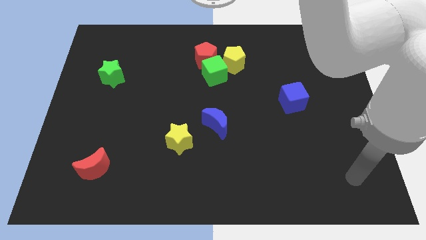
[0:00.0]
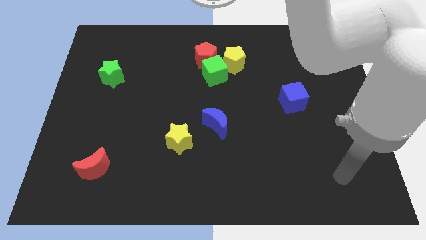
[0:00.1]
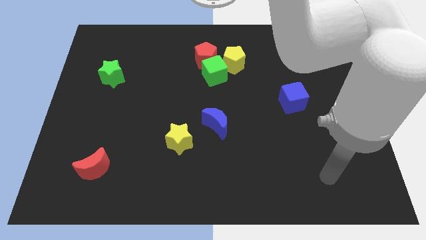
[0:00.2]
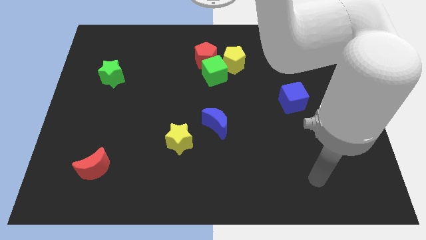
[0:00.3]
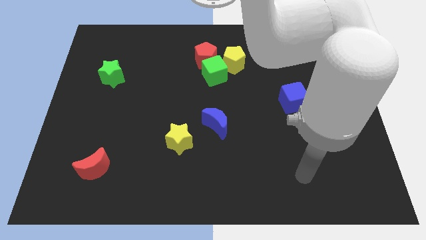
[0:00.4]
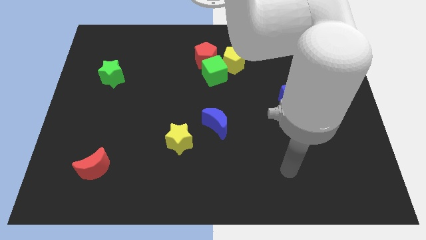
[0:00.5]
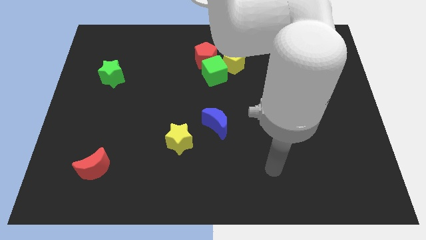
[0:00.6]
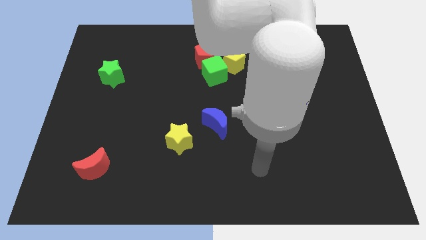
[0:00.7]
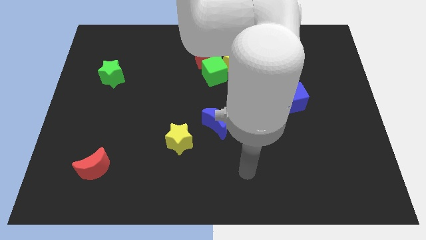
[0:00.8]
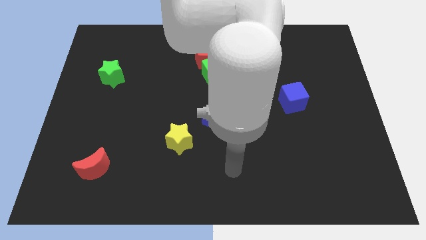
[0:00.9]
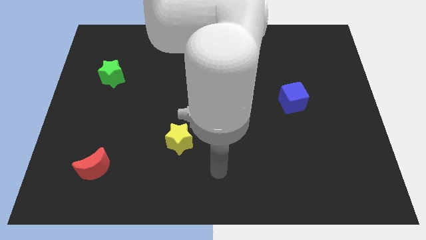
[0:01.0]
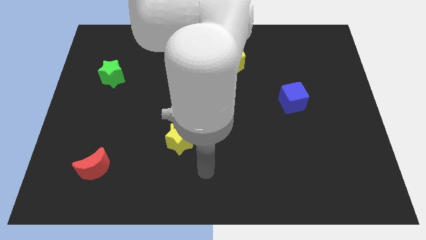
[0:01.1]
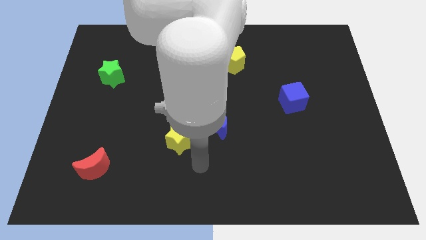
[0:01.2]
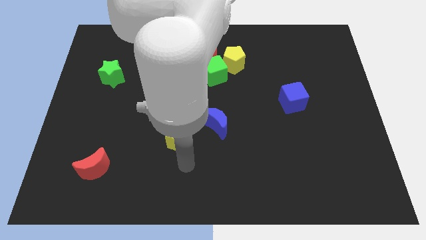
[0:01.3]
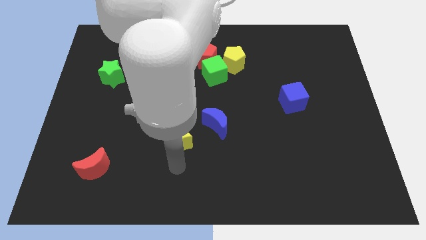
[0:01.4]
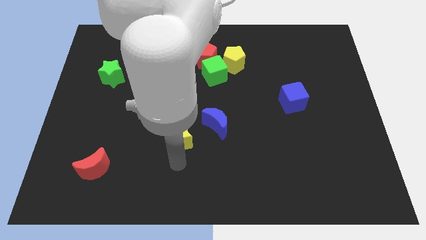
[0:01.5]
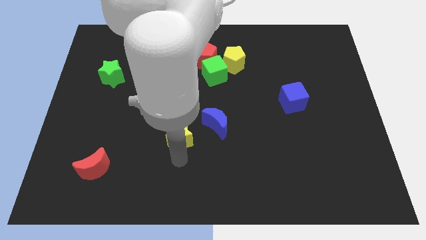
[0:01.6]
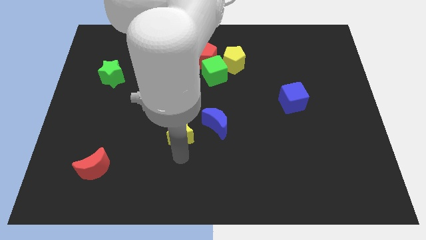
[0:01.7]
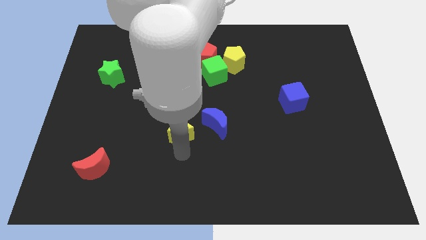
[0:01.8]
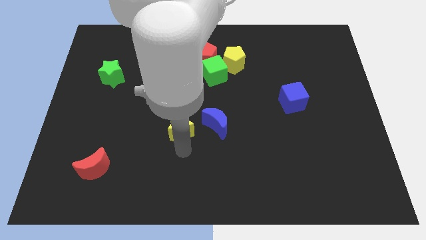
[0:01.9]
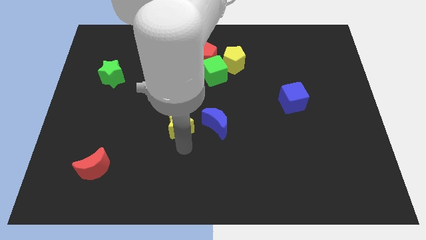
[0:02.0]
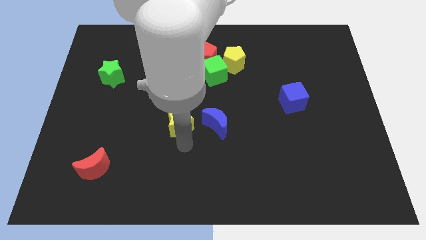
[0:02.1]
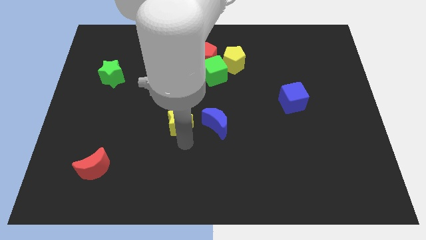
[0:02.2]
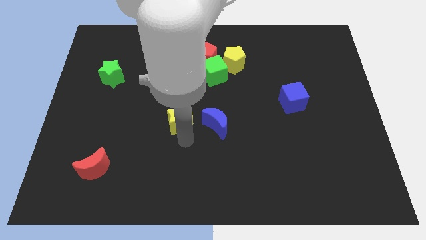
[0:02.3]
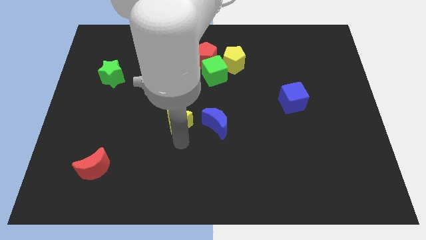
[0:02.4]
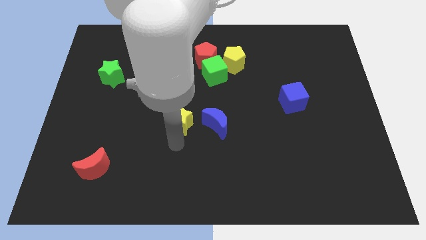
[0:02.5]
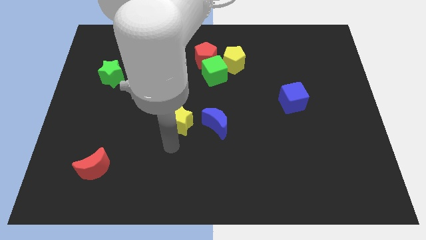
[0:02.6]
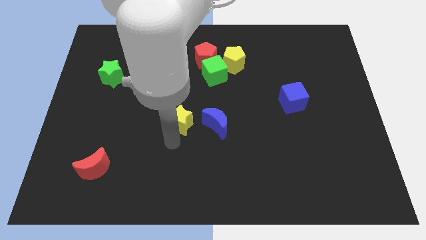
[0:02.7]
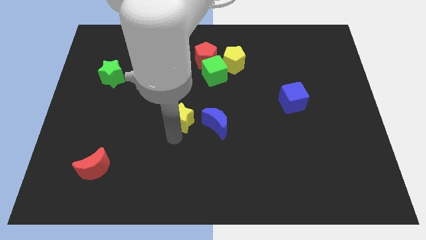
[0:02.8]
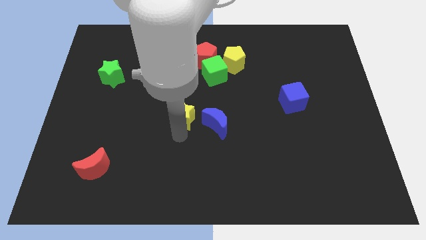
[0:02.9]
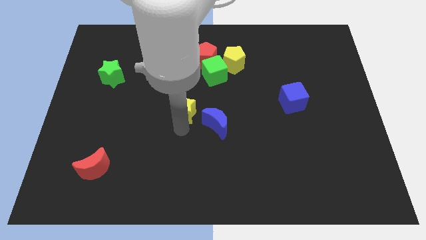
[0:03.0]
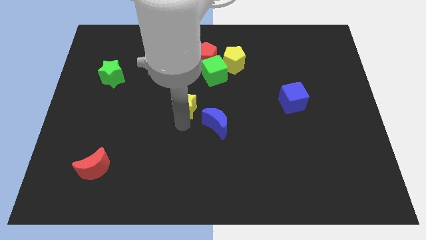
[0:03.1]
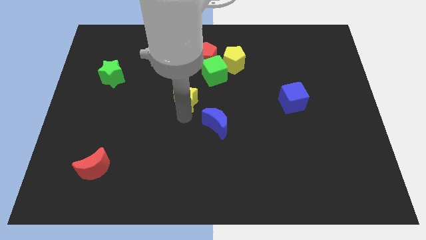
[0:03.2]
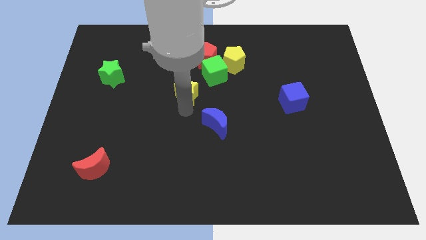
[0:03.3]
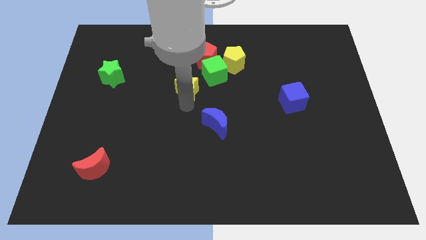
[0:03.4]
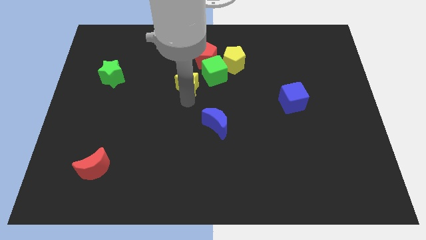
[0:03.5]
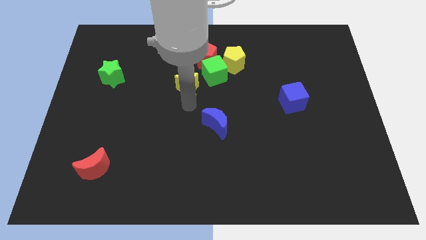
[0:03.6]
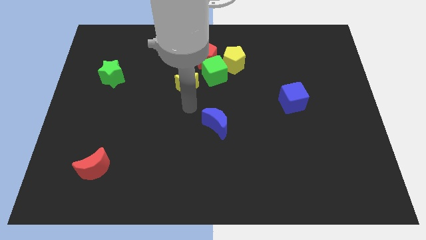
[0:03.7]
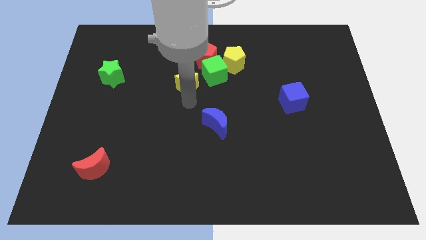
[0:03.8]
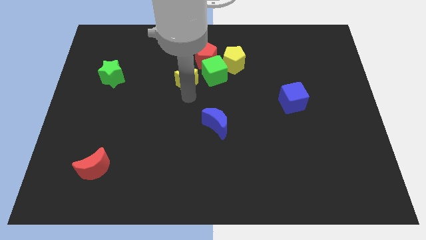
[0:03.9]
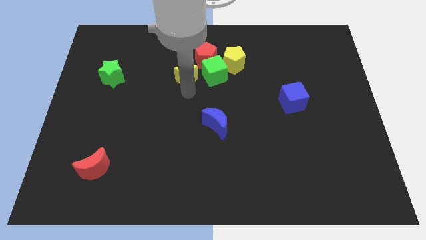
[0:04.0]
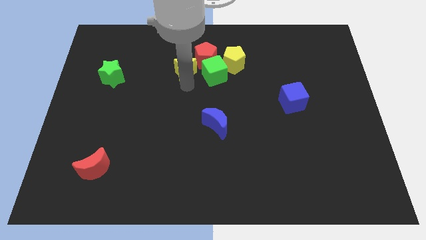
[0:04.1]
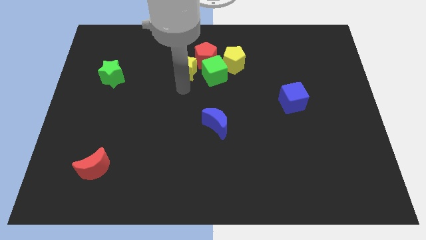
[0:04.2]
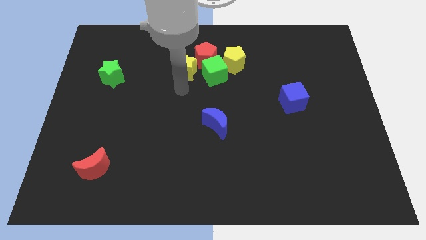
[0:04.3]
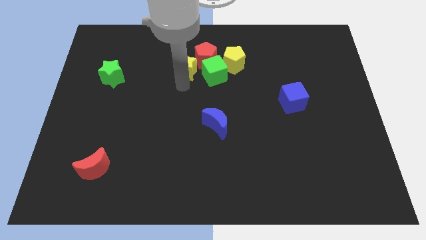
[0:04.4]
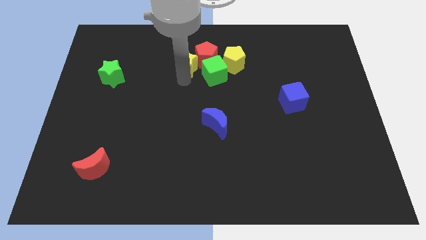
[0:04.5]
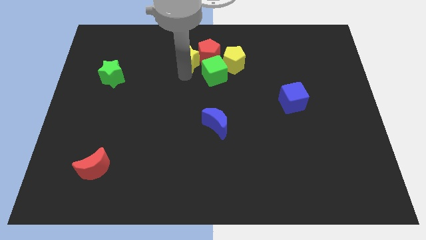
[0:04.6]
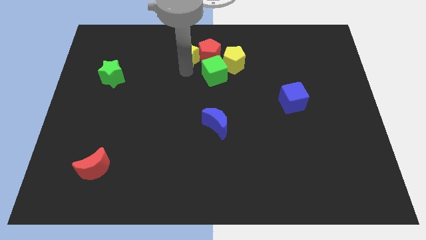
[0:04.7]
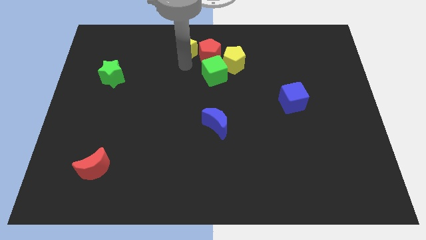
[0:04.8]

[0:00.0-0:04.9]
move the yellow star to the towards your base

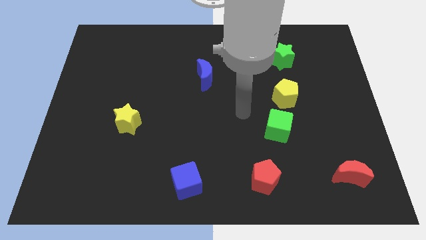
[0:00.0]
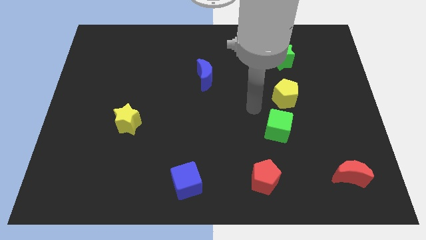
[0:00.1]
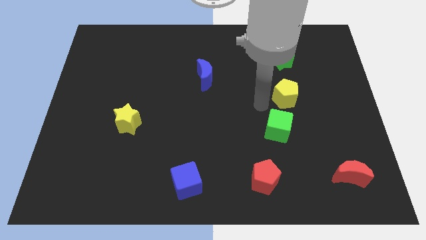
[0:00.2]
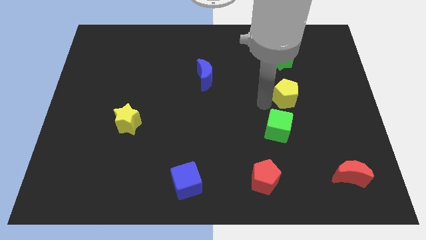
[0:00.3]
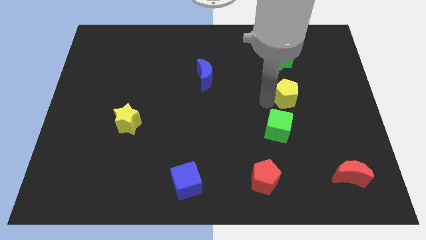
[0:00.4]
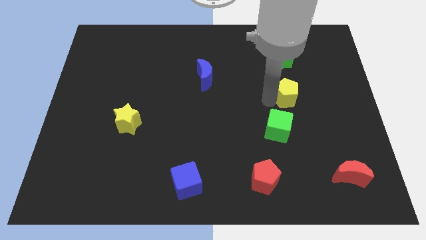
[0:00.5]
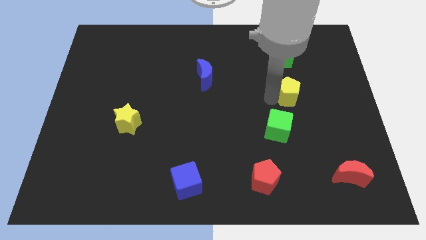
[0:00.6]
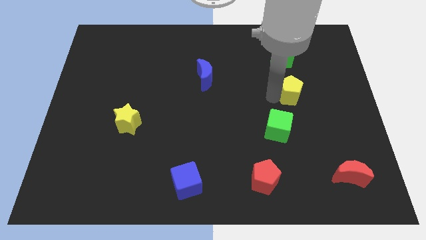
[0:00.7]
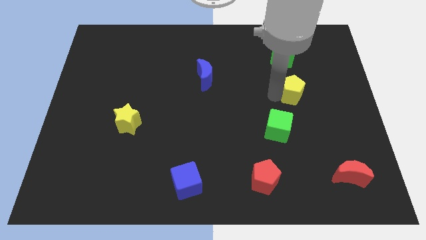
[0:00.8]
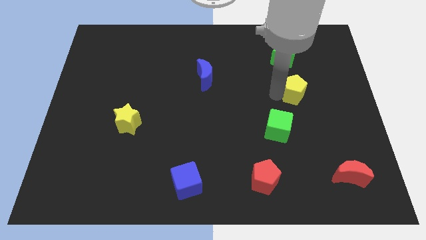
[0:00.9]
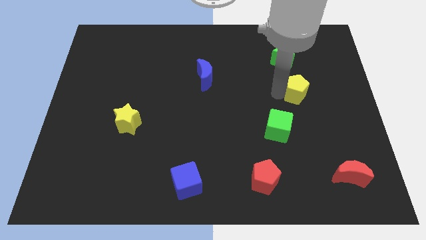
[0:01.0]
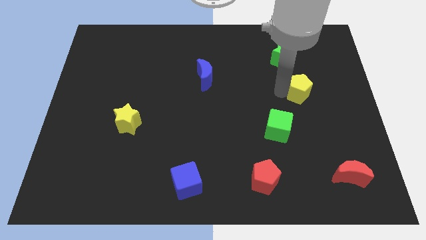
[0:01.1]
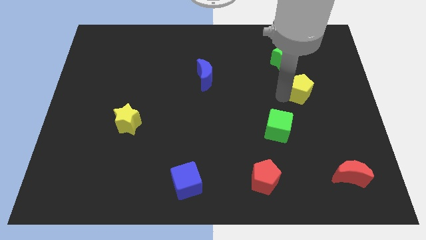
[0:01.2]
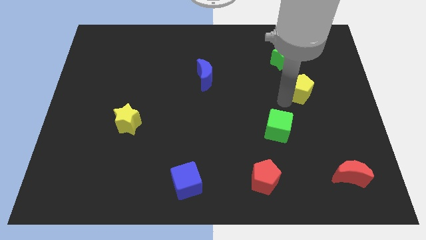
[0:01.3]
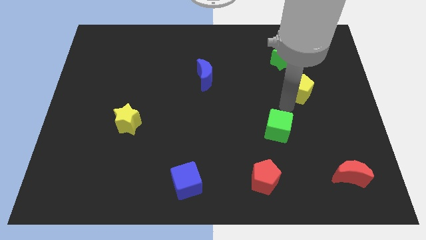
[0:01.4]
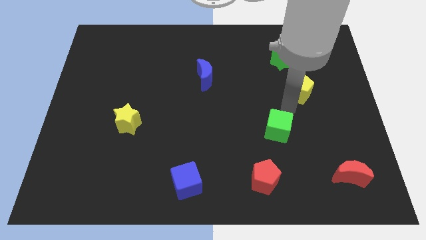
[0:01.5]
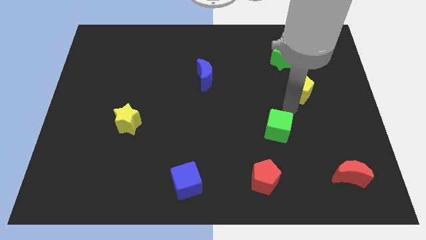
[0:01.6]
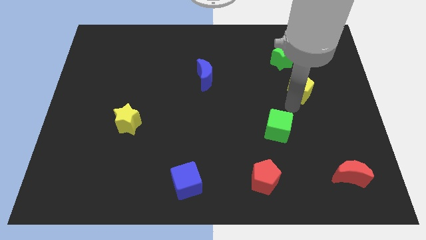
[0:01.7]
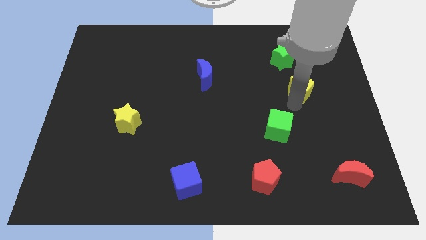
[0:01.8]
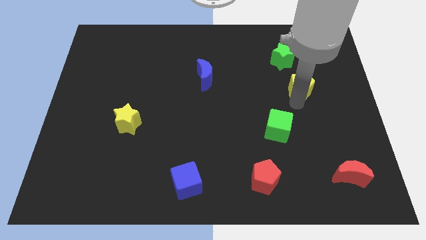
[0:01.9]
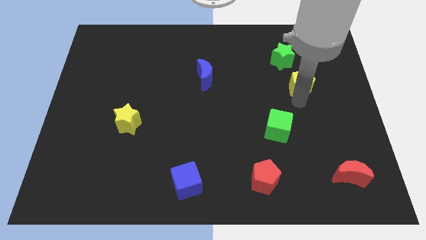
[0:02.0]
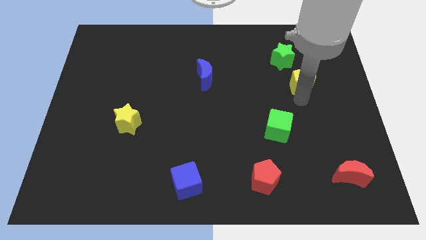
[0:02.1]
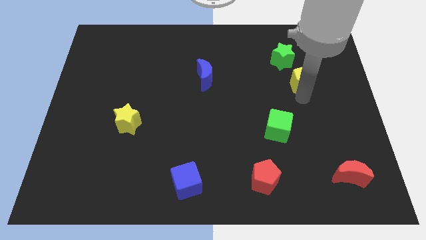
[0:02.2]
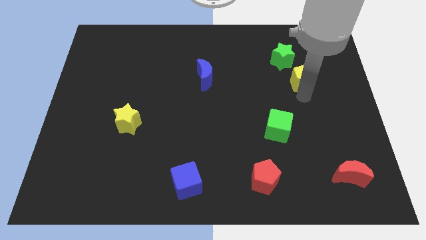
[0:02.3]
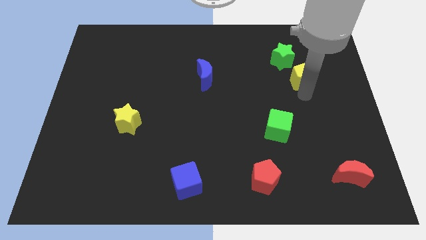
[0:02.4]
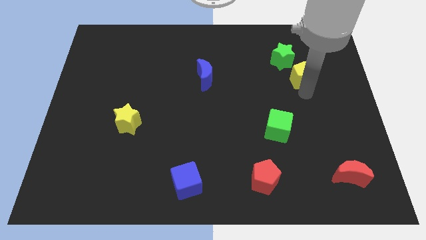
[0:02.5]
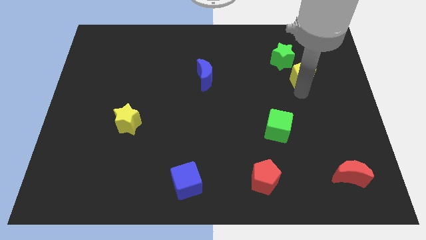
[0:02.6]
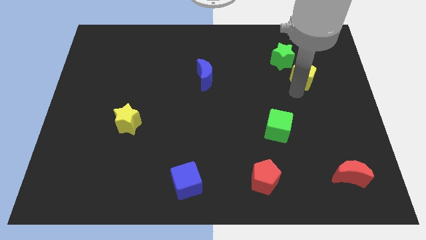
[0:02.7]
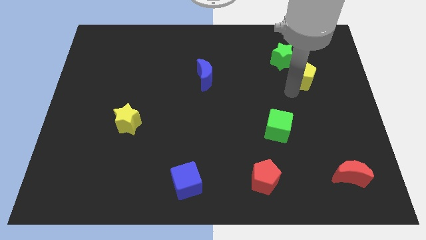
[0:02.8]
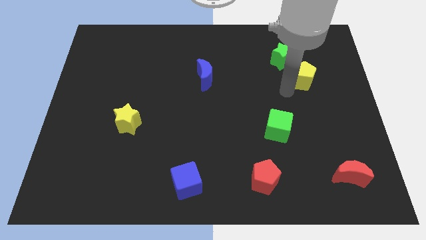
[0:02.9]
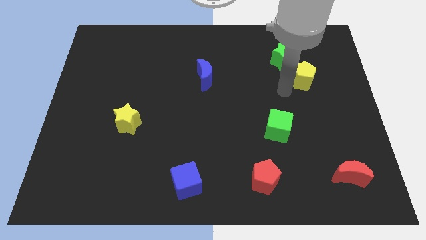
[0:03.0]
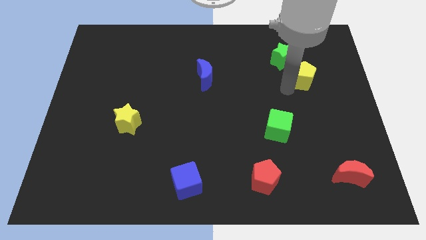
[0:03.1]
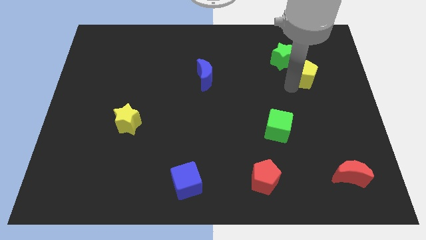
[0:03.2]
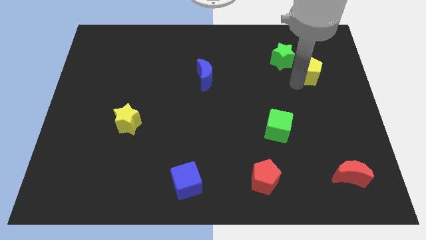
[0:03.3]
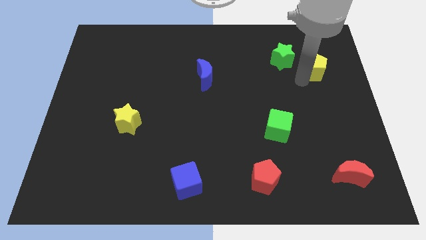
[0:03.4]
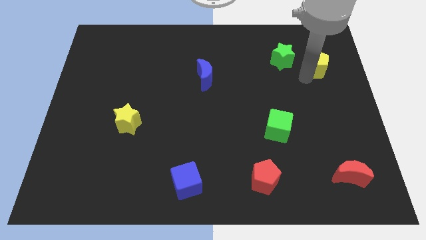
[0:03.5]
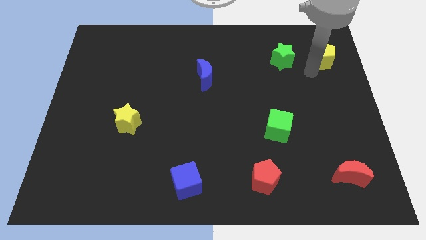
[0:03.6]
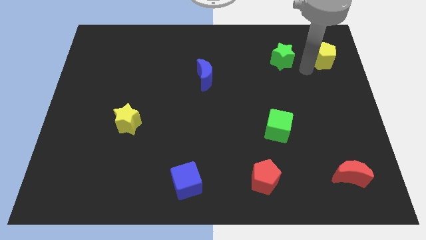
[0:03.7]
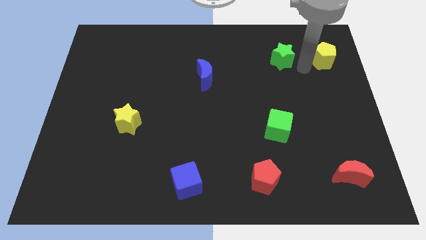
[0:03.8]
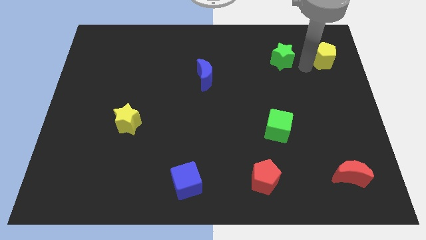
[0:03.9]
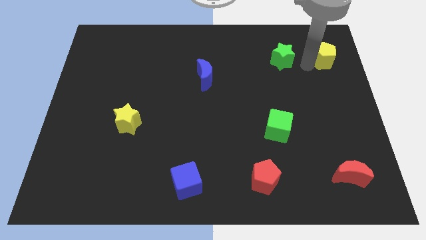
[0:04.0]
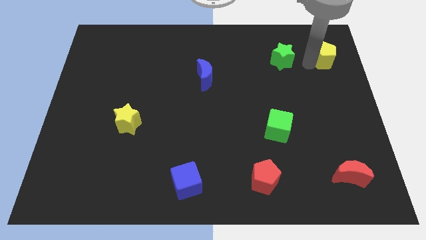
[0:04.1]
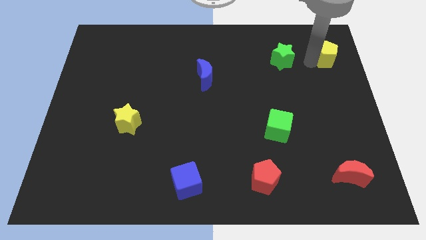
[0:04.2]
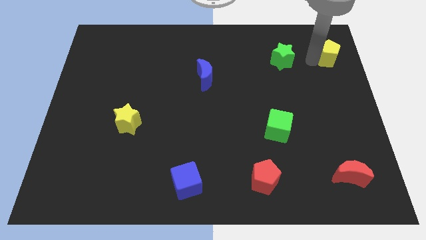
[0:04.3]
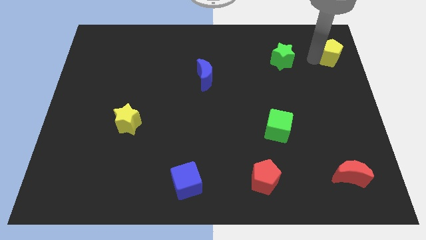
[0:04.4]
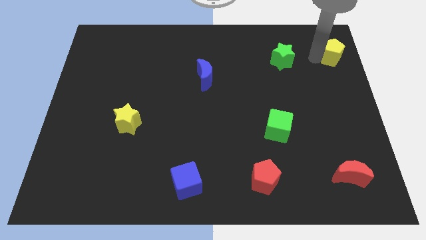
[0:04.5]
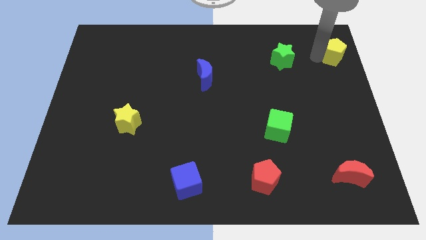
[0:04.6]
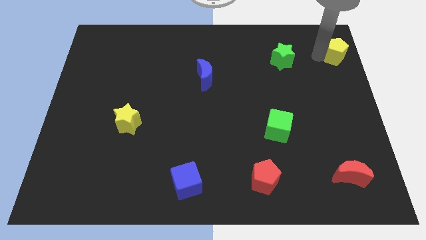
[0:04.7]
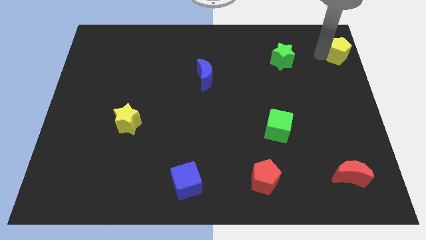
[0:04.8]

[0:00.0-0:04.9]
slide the yellow pentagon to the top right
